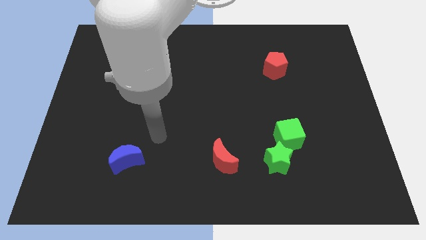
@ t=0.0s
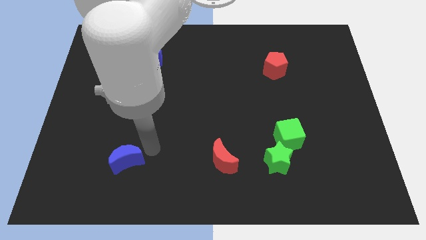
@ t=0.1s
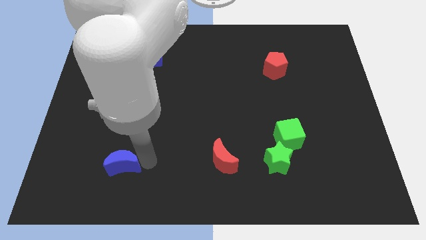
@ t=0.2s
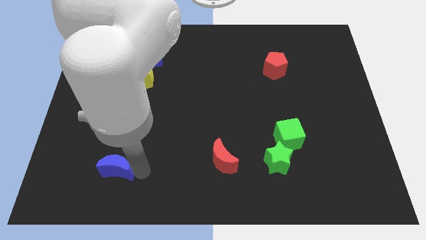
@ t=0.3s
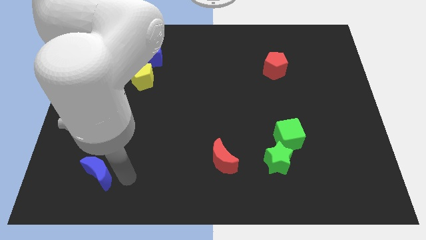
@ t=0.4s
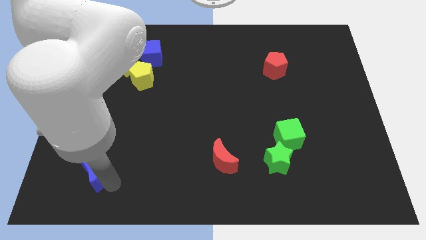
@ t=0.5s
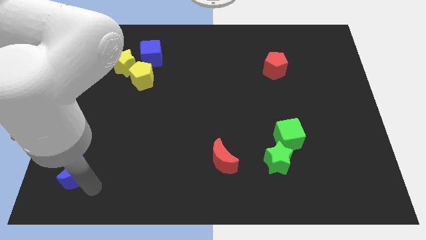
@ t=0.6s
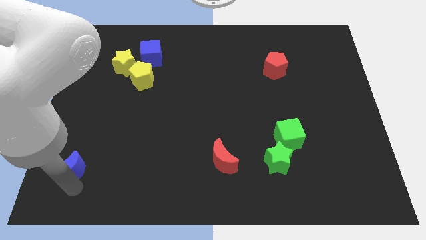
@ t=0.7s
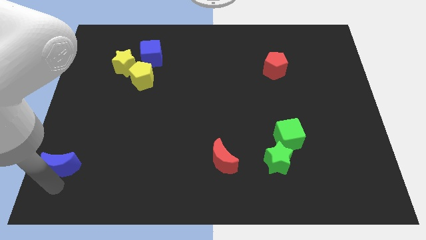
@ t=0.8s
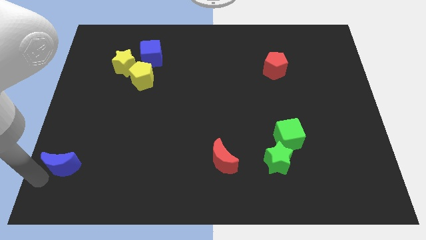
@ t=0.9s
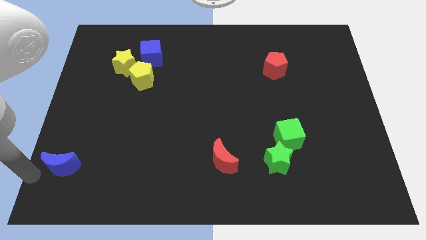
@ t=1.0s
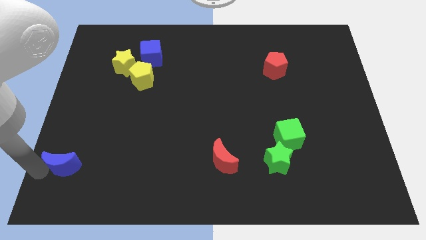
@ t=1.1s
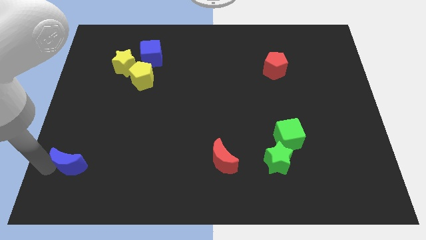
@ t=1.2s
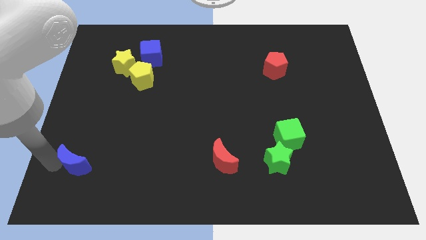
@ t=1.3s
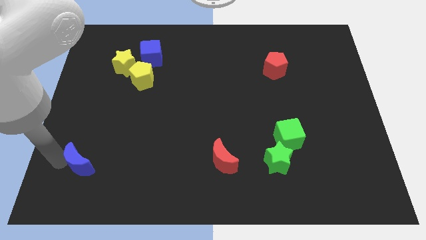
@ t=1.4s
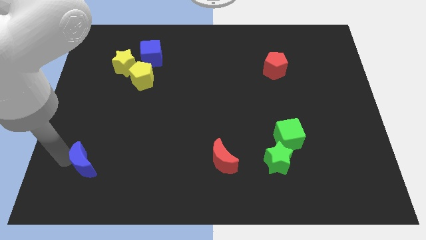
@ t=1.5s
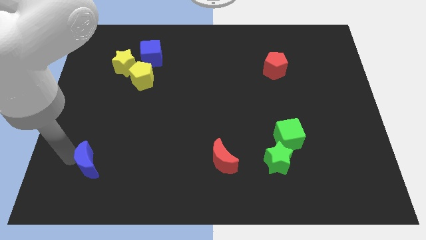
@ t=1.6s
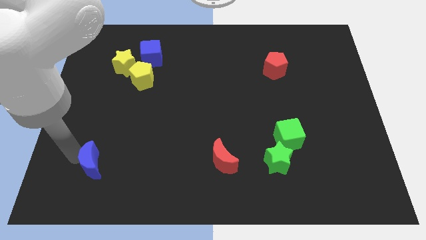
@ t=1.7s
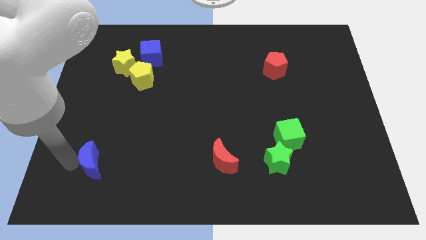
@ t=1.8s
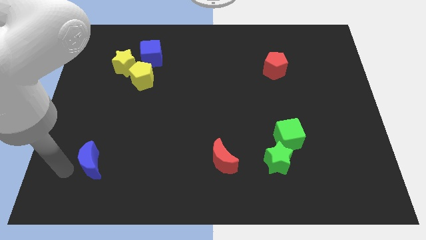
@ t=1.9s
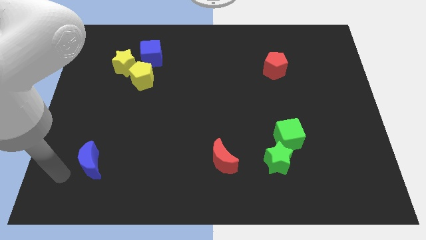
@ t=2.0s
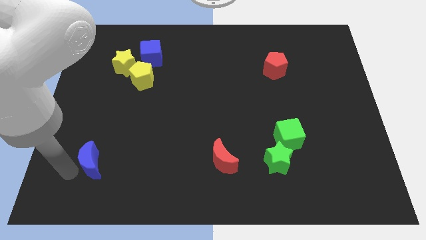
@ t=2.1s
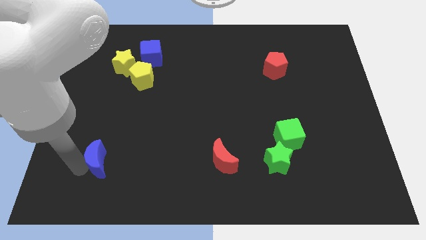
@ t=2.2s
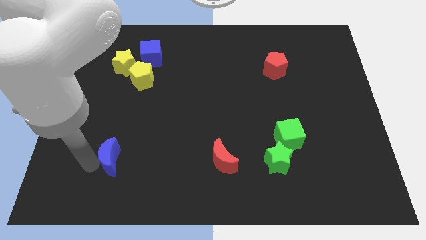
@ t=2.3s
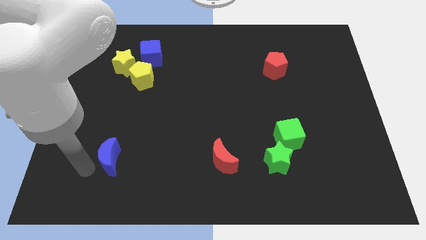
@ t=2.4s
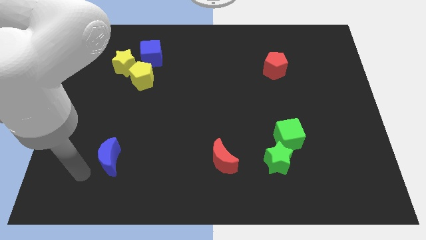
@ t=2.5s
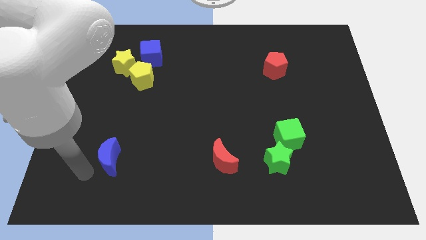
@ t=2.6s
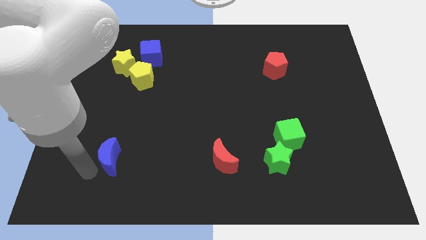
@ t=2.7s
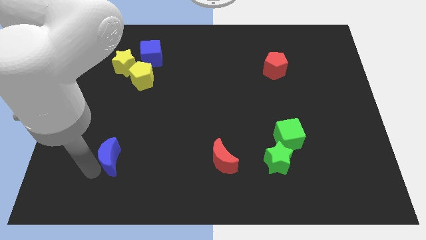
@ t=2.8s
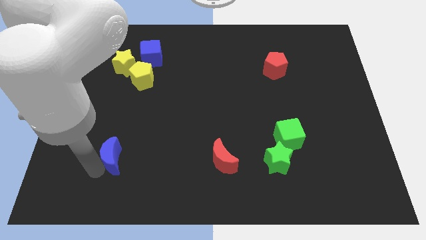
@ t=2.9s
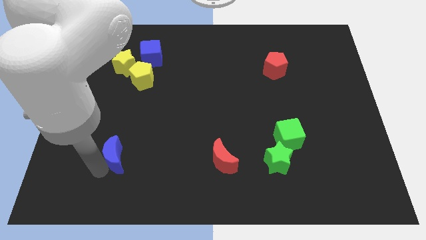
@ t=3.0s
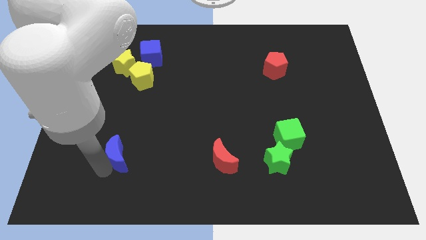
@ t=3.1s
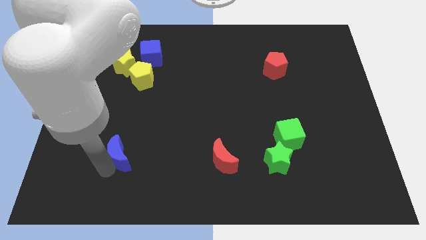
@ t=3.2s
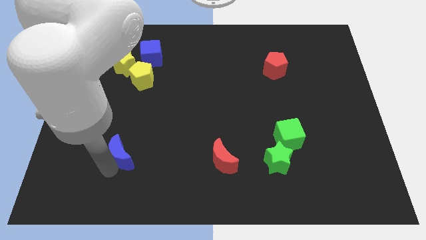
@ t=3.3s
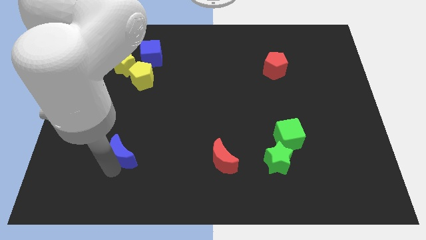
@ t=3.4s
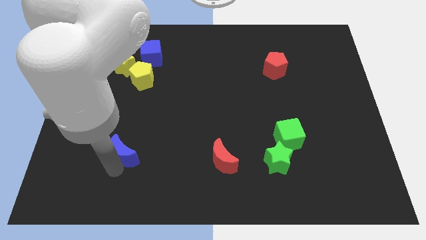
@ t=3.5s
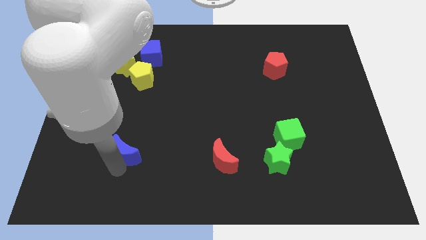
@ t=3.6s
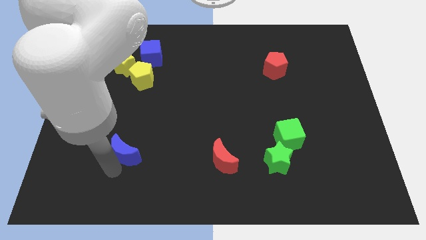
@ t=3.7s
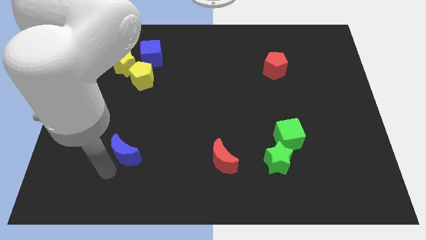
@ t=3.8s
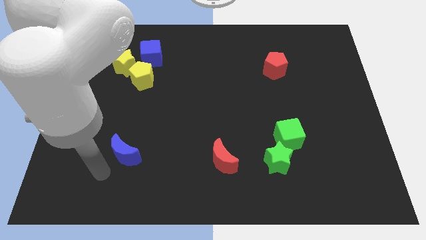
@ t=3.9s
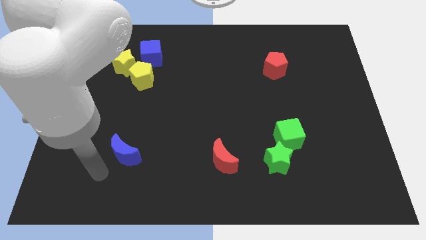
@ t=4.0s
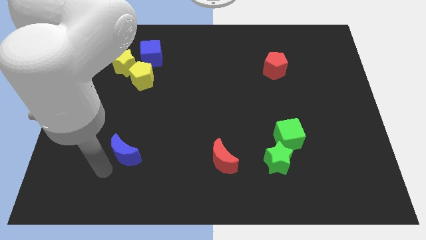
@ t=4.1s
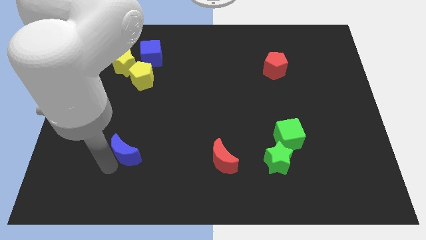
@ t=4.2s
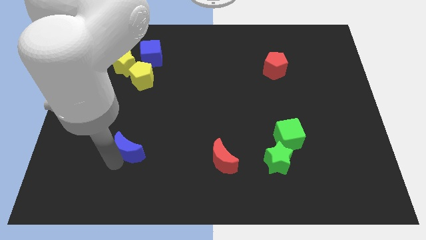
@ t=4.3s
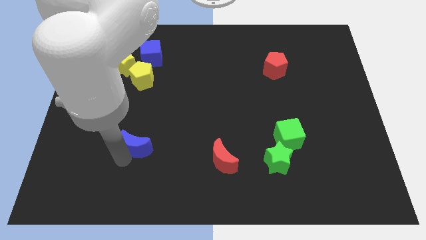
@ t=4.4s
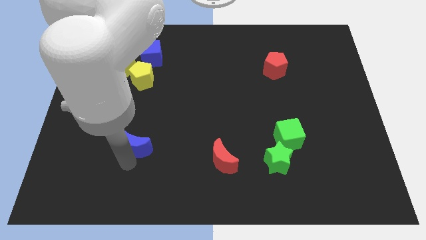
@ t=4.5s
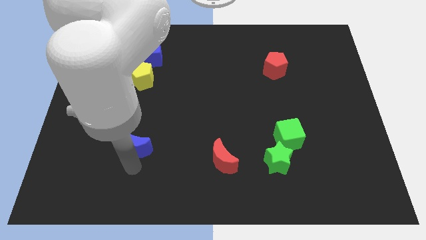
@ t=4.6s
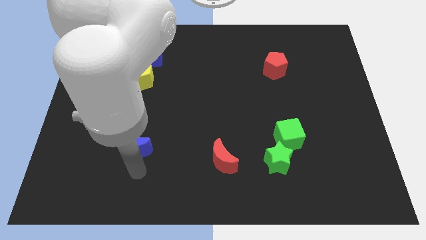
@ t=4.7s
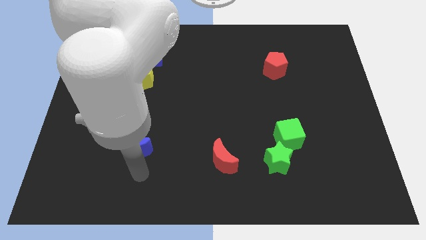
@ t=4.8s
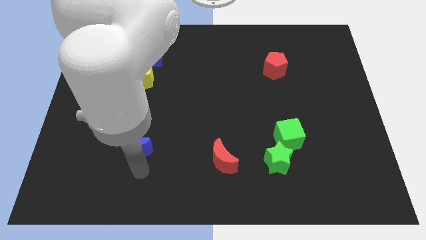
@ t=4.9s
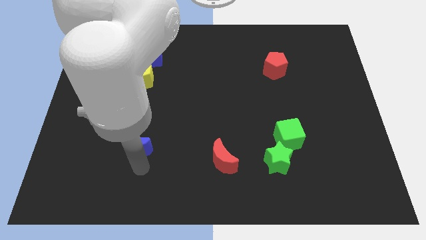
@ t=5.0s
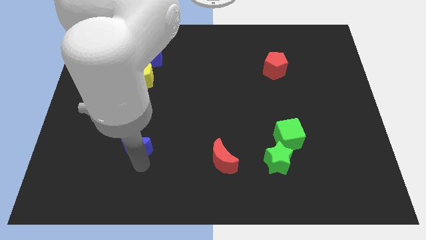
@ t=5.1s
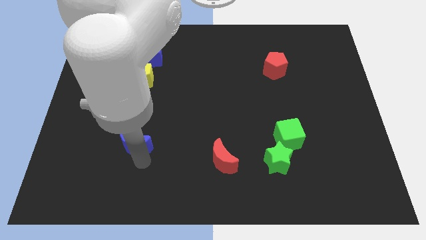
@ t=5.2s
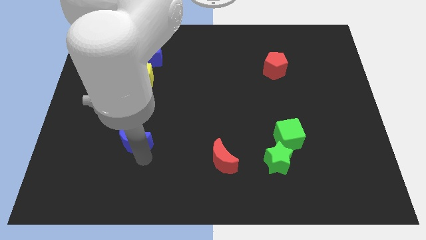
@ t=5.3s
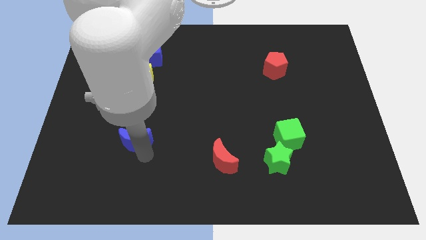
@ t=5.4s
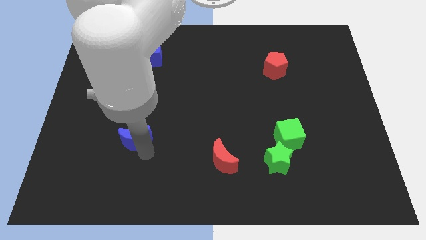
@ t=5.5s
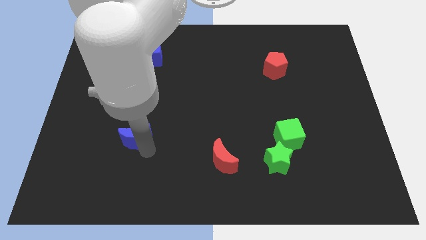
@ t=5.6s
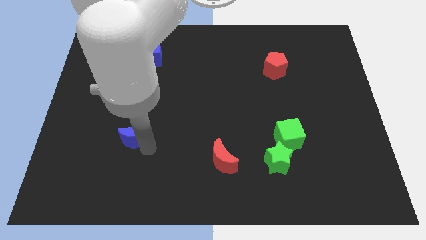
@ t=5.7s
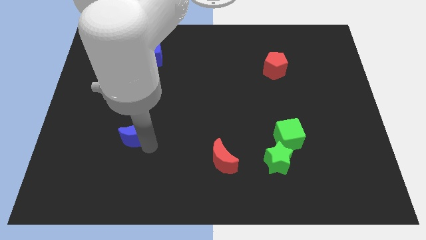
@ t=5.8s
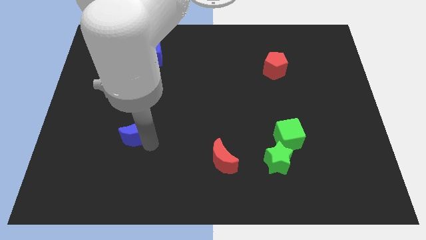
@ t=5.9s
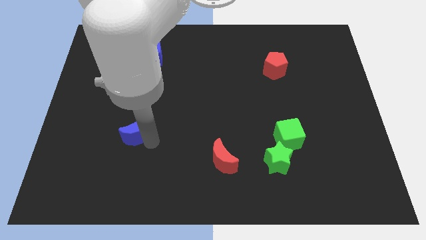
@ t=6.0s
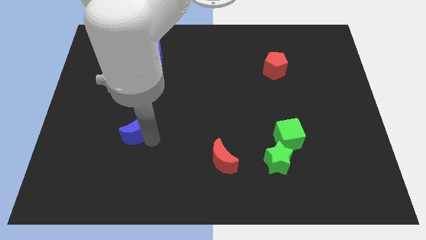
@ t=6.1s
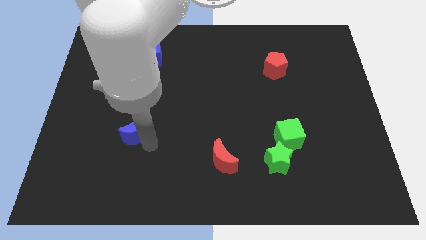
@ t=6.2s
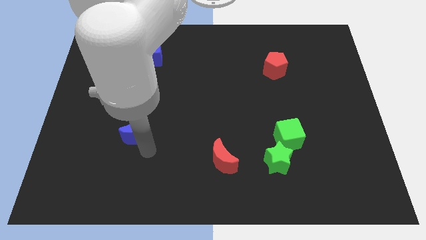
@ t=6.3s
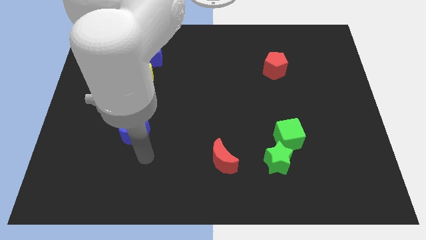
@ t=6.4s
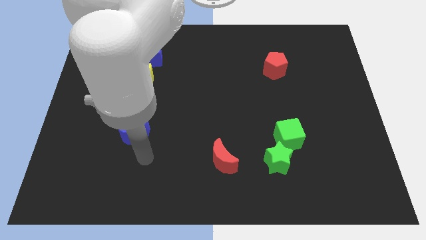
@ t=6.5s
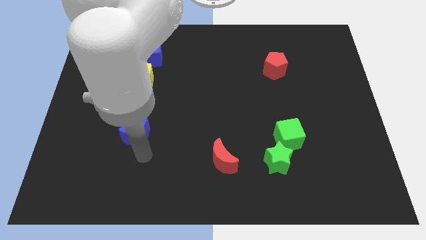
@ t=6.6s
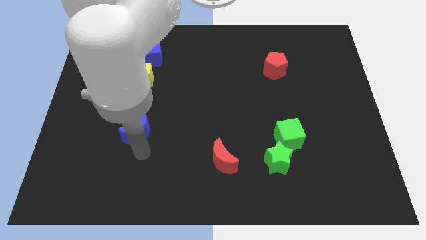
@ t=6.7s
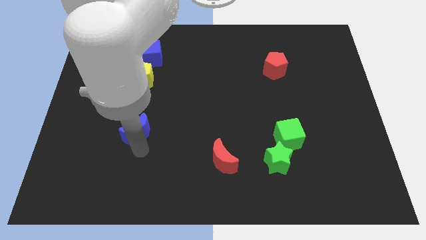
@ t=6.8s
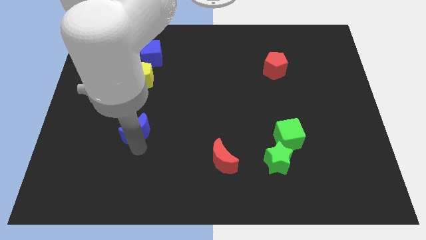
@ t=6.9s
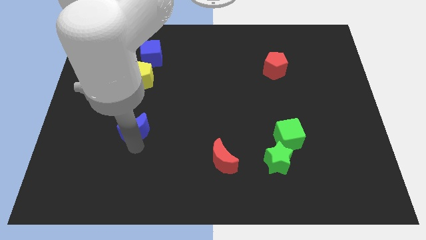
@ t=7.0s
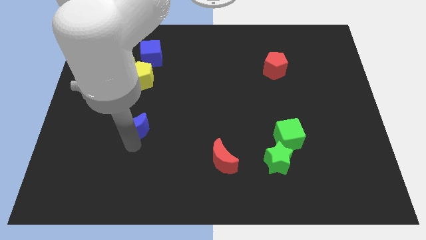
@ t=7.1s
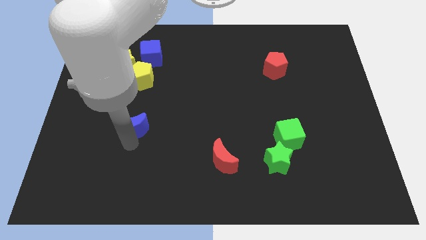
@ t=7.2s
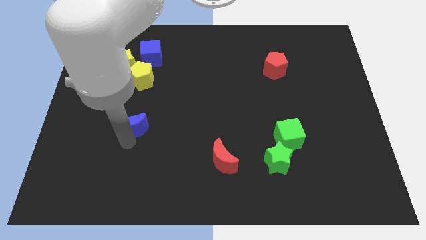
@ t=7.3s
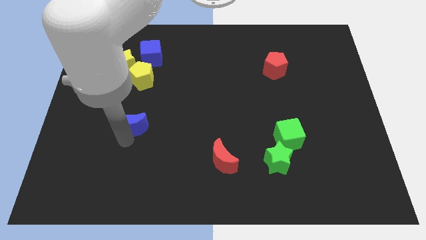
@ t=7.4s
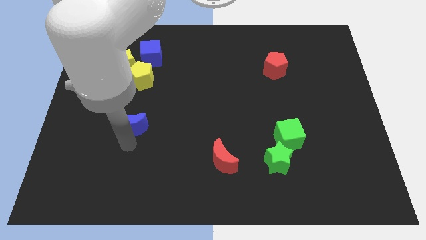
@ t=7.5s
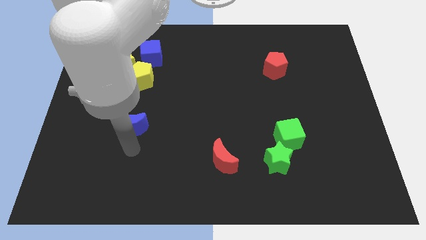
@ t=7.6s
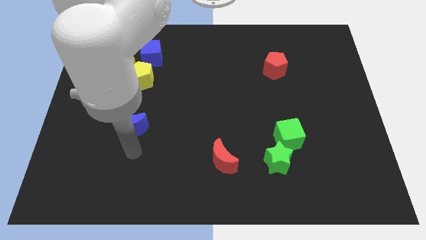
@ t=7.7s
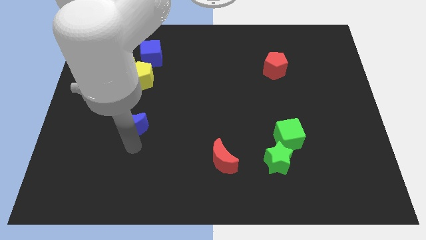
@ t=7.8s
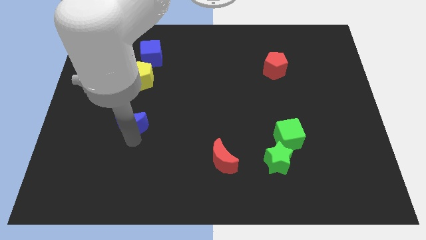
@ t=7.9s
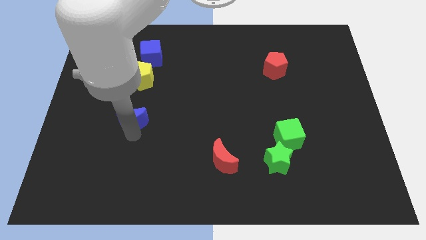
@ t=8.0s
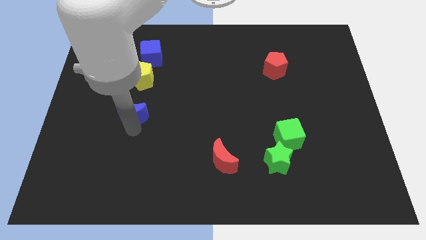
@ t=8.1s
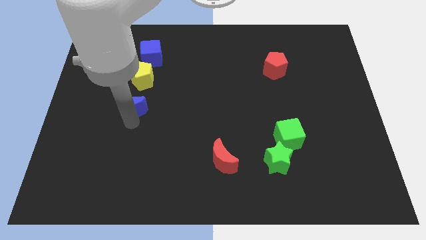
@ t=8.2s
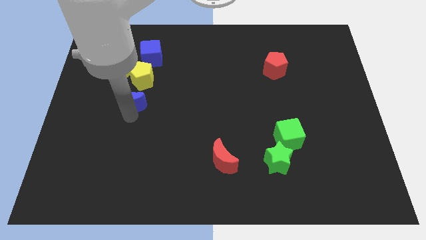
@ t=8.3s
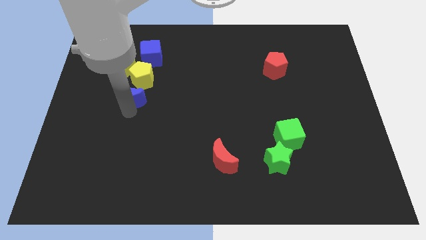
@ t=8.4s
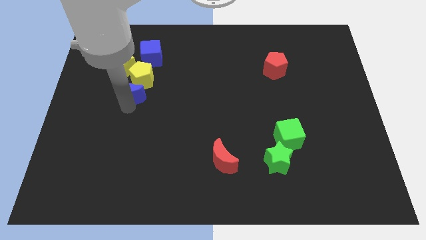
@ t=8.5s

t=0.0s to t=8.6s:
move the blue moon close to the yellow pentagon
